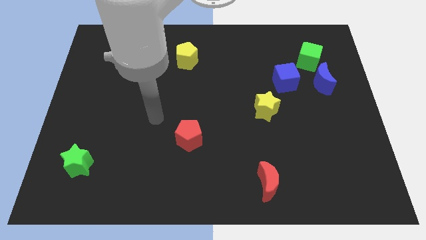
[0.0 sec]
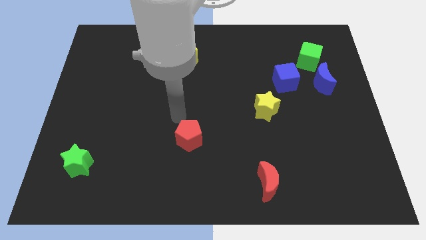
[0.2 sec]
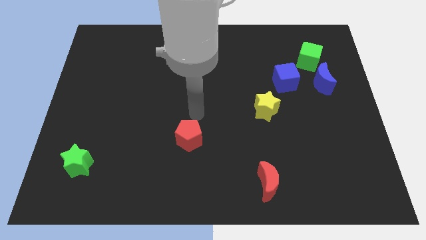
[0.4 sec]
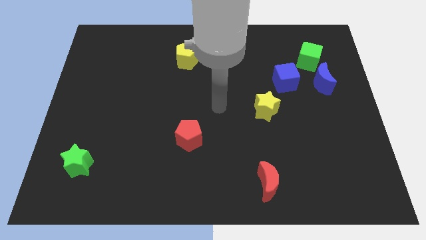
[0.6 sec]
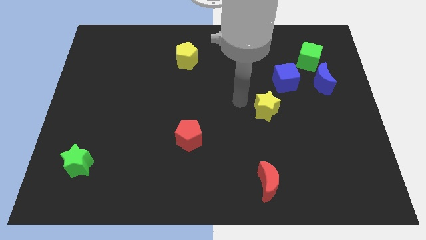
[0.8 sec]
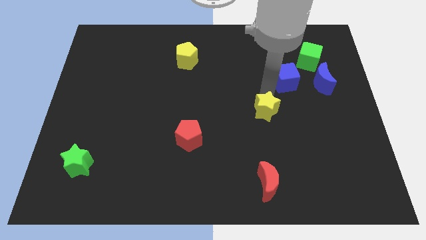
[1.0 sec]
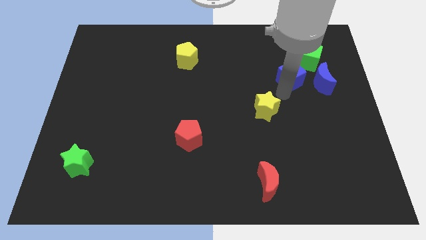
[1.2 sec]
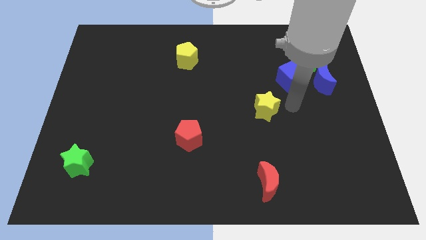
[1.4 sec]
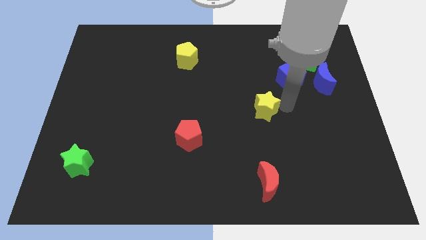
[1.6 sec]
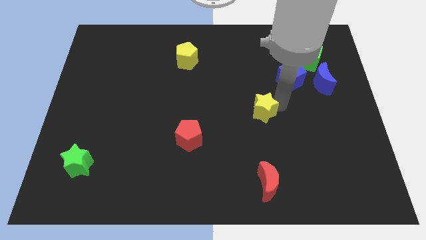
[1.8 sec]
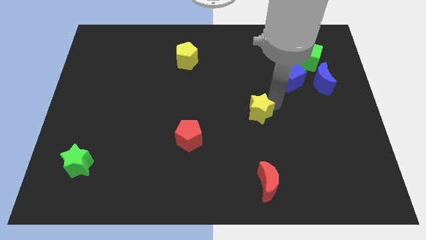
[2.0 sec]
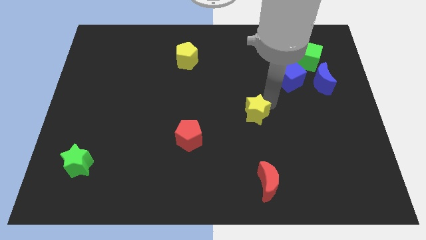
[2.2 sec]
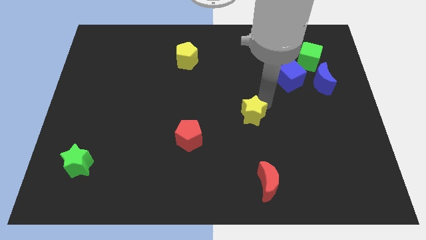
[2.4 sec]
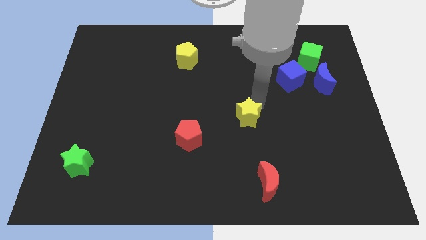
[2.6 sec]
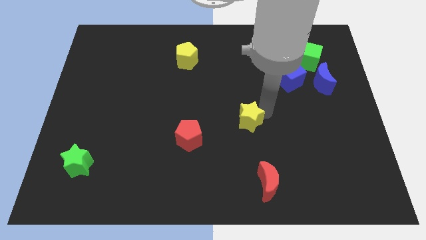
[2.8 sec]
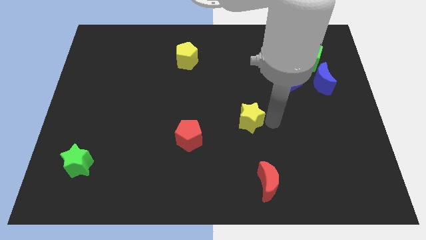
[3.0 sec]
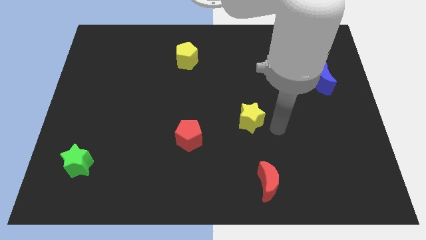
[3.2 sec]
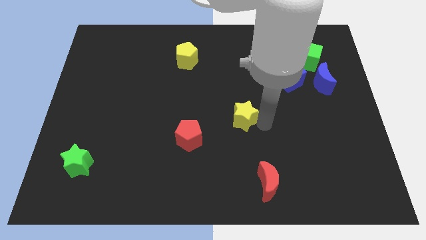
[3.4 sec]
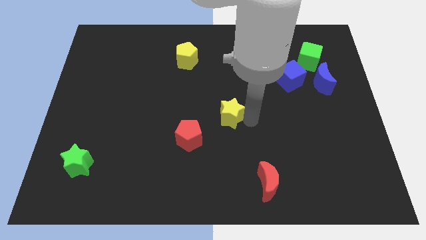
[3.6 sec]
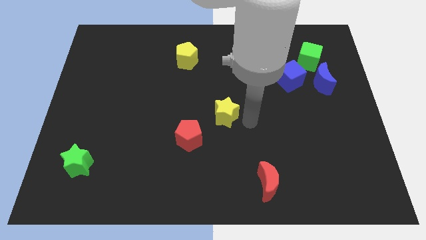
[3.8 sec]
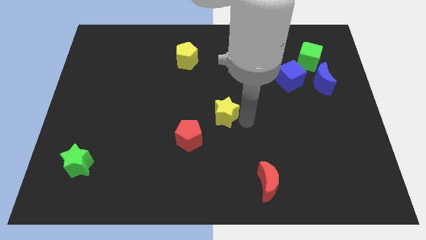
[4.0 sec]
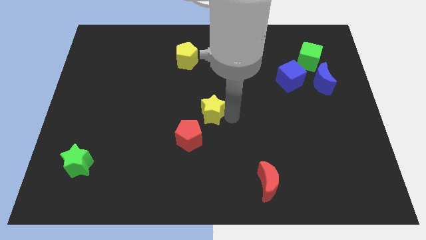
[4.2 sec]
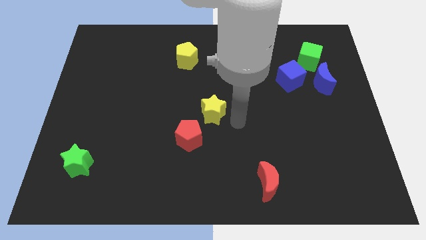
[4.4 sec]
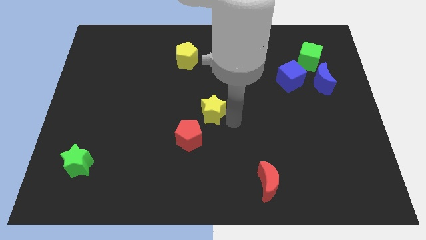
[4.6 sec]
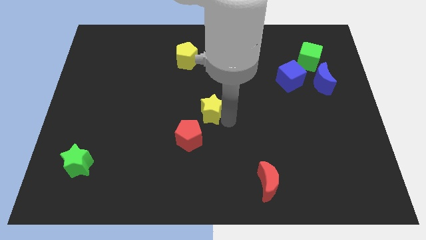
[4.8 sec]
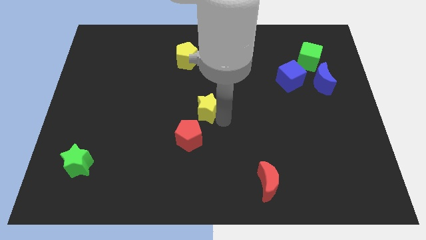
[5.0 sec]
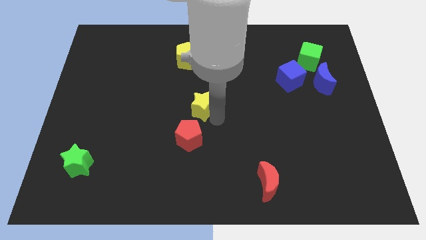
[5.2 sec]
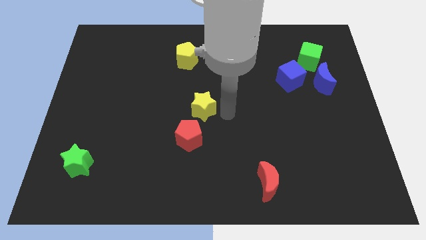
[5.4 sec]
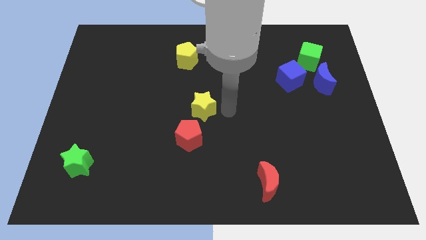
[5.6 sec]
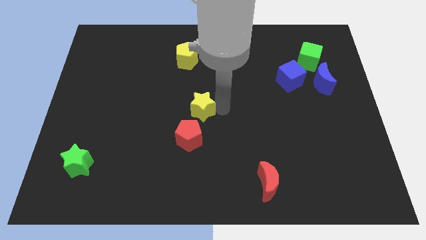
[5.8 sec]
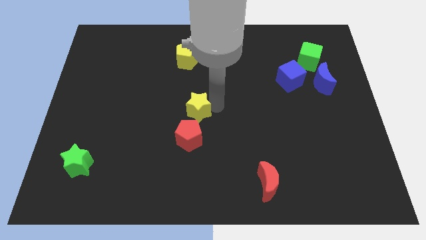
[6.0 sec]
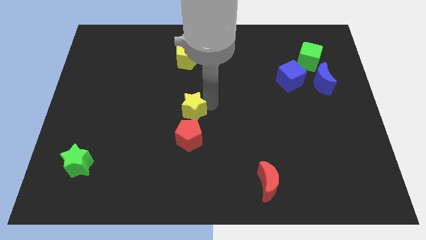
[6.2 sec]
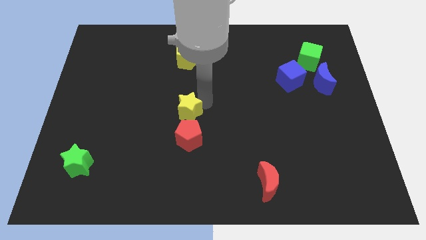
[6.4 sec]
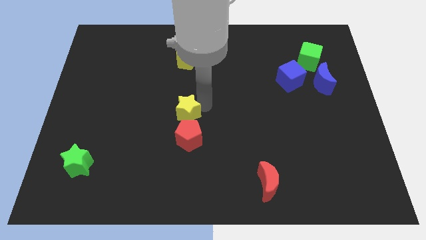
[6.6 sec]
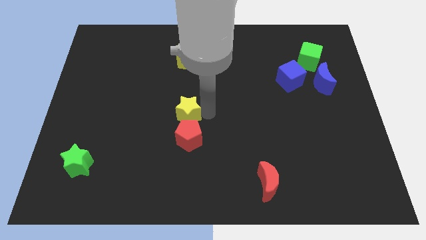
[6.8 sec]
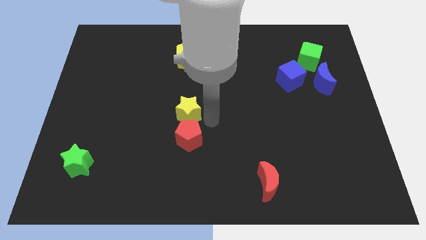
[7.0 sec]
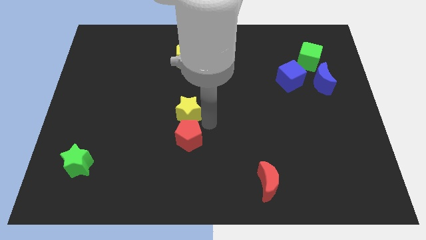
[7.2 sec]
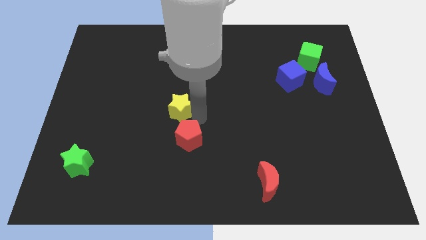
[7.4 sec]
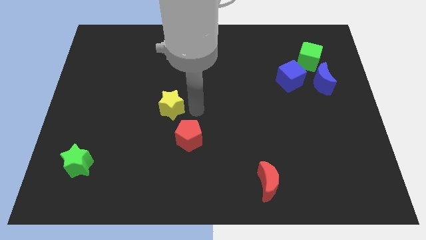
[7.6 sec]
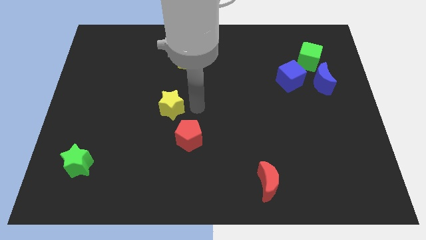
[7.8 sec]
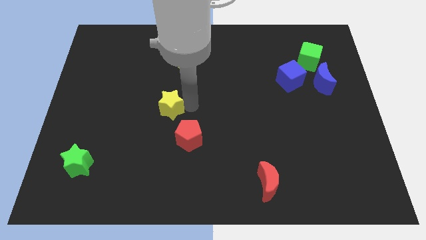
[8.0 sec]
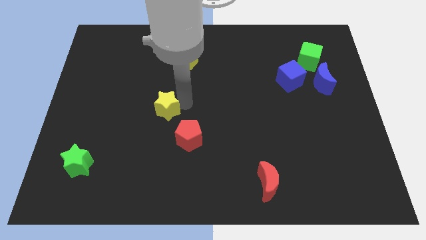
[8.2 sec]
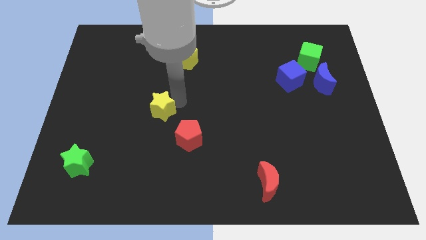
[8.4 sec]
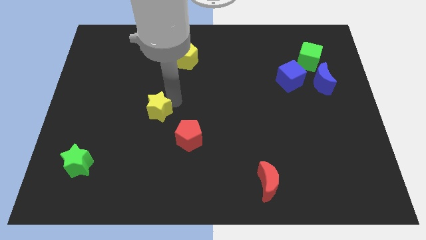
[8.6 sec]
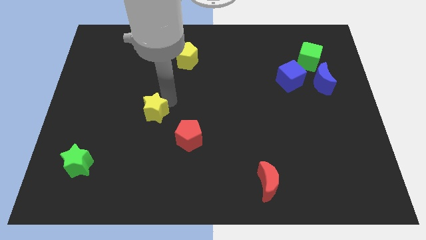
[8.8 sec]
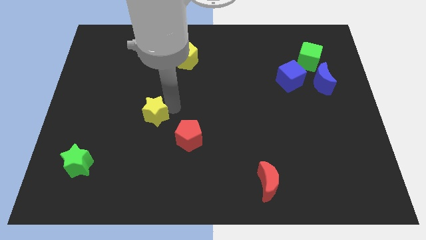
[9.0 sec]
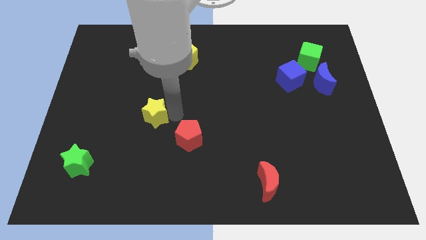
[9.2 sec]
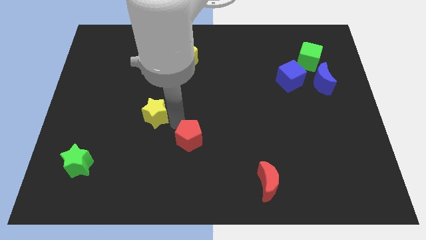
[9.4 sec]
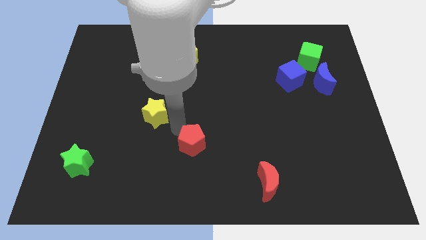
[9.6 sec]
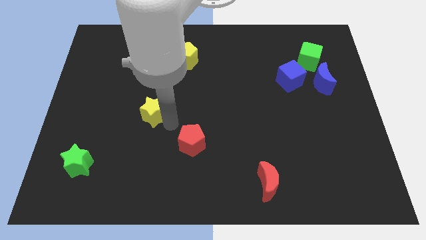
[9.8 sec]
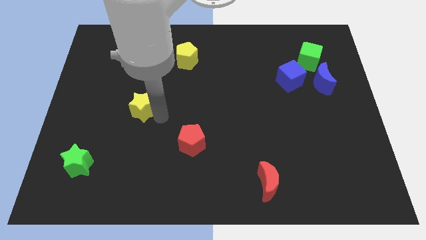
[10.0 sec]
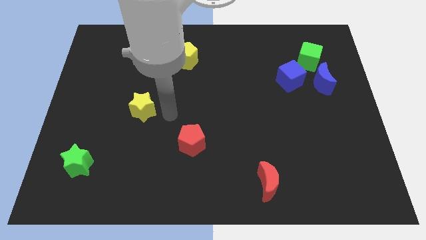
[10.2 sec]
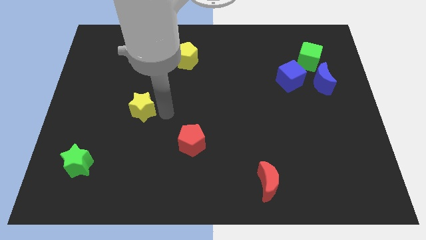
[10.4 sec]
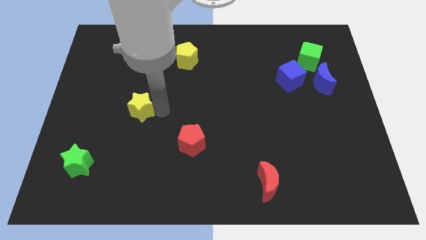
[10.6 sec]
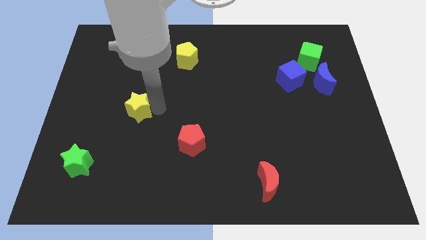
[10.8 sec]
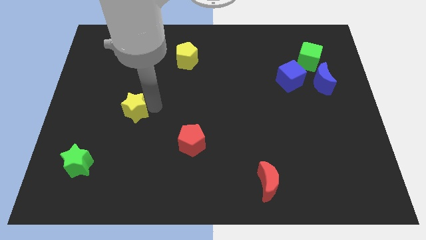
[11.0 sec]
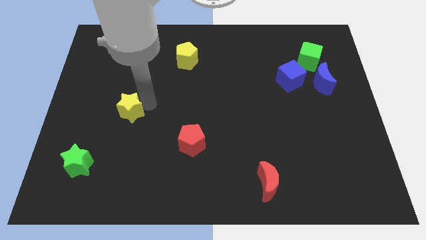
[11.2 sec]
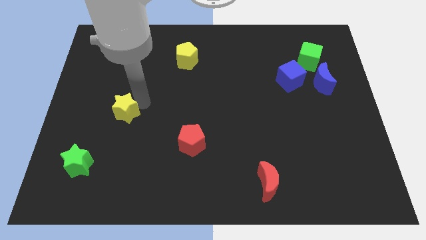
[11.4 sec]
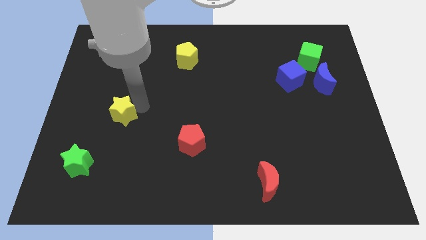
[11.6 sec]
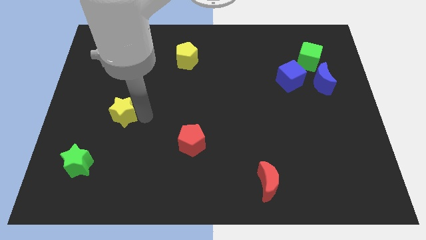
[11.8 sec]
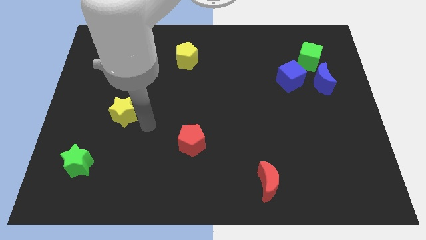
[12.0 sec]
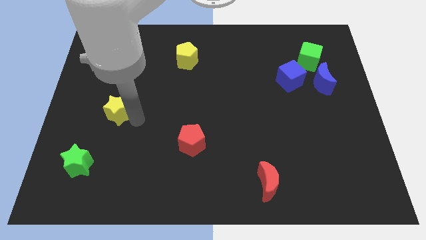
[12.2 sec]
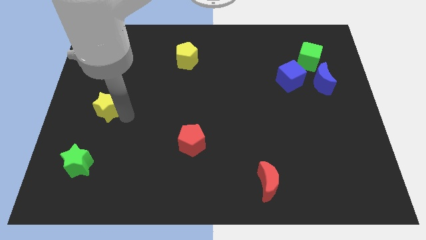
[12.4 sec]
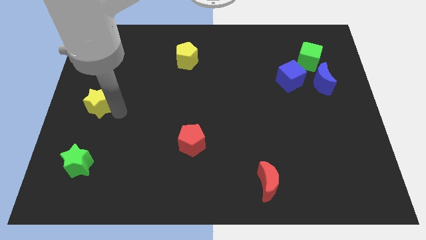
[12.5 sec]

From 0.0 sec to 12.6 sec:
put the yellow star to the center left
